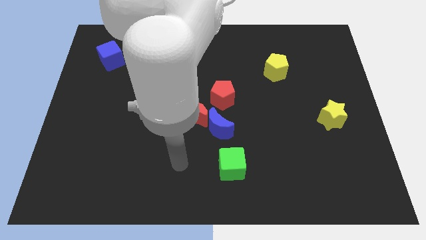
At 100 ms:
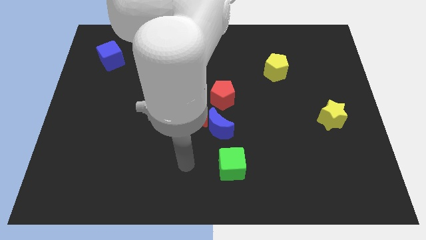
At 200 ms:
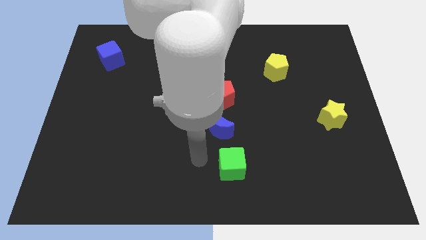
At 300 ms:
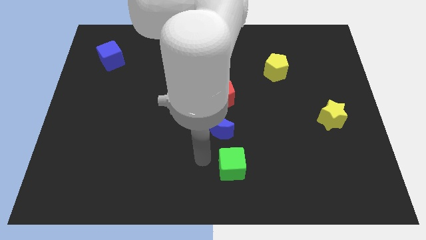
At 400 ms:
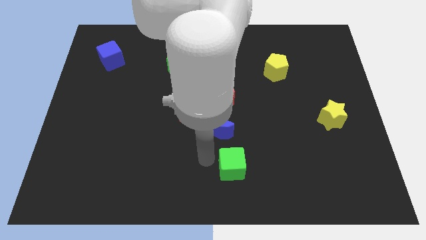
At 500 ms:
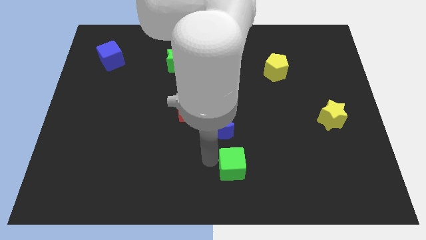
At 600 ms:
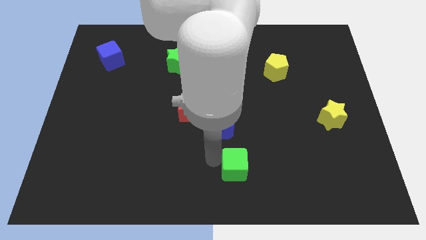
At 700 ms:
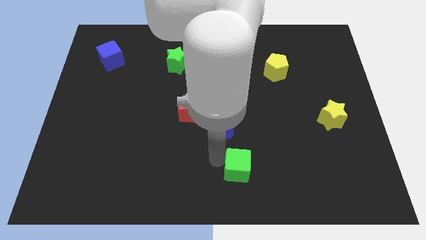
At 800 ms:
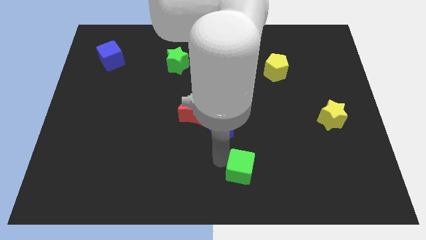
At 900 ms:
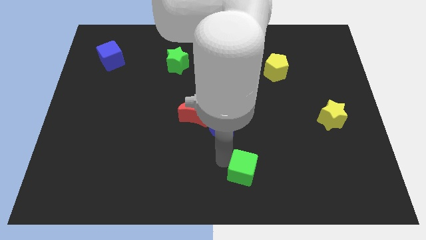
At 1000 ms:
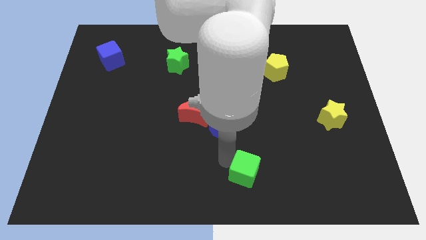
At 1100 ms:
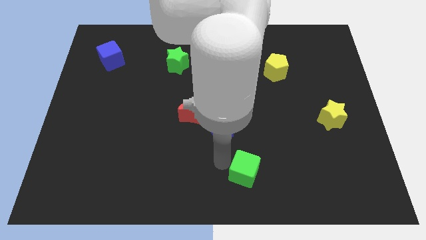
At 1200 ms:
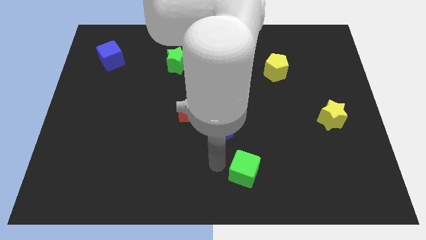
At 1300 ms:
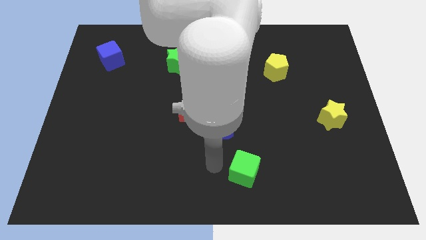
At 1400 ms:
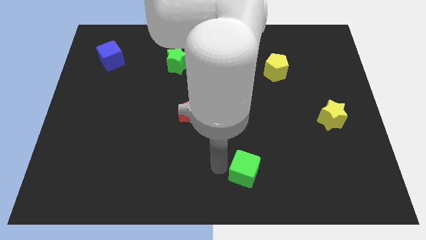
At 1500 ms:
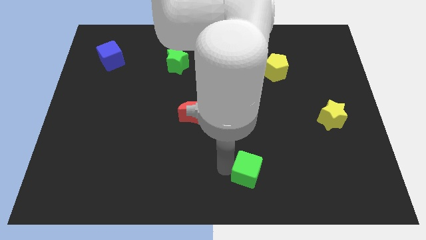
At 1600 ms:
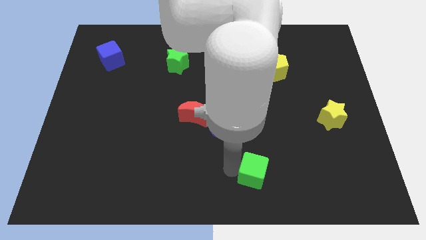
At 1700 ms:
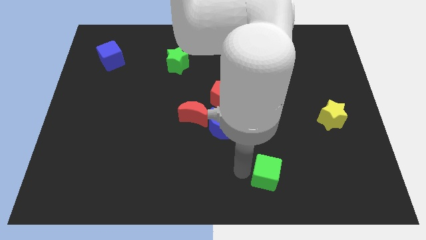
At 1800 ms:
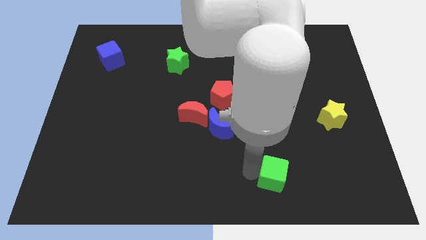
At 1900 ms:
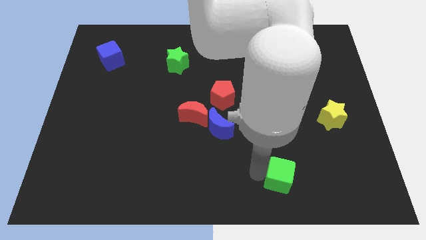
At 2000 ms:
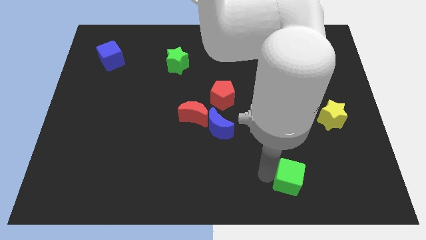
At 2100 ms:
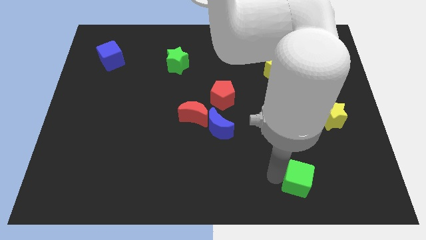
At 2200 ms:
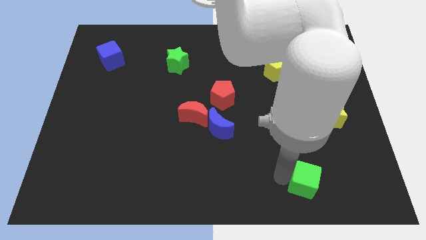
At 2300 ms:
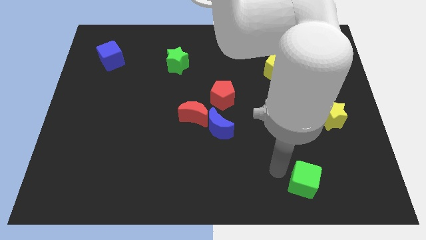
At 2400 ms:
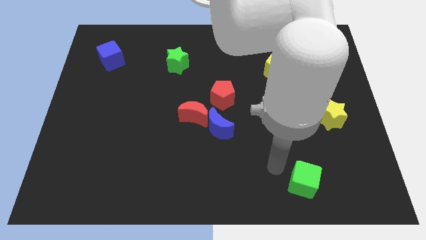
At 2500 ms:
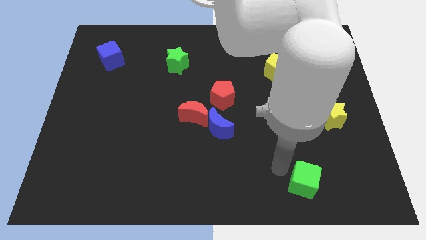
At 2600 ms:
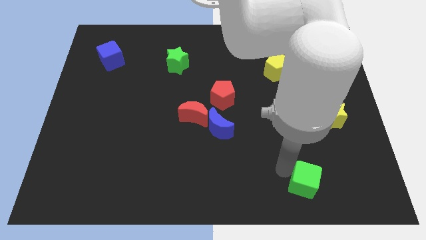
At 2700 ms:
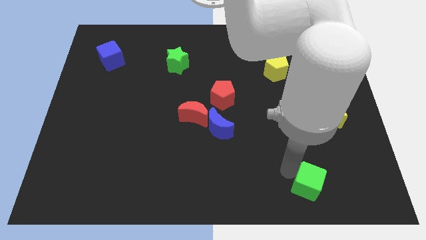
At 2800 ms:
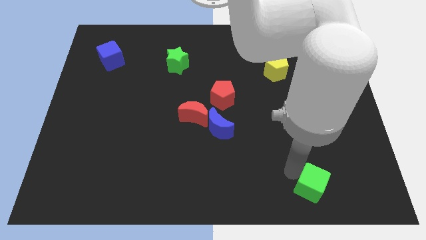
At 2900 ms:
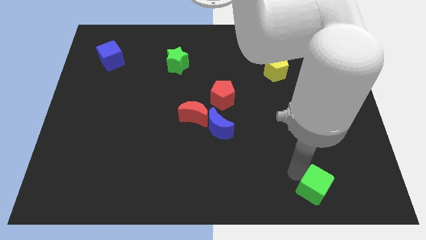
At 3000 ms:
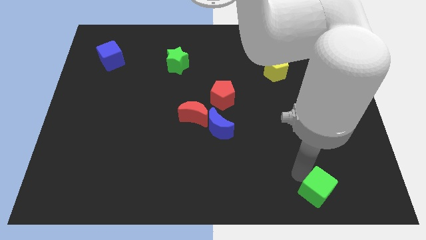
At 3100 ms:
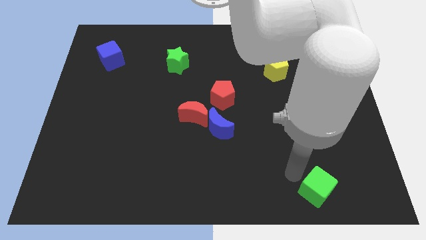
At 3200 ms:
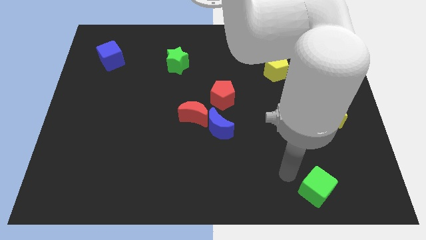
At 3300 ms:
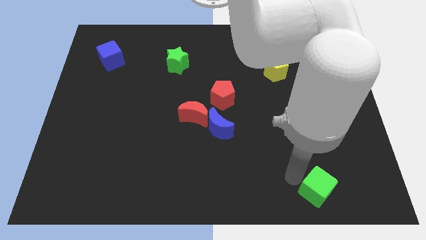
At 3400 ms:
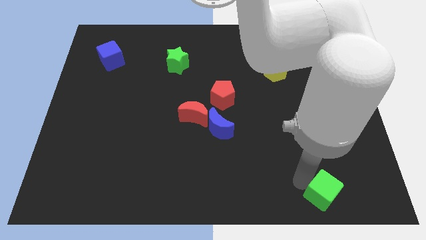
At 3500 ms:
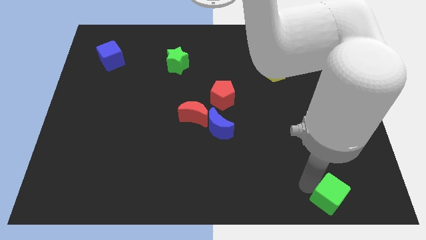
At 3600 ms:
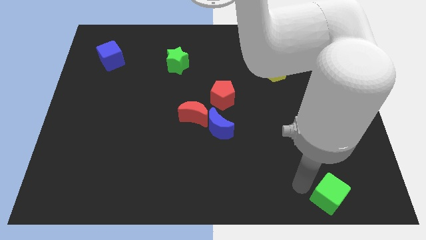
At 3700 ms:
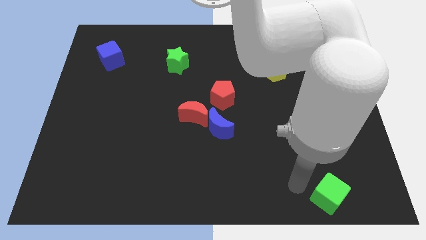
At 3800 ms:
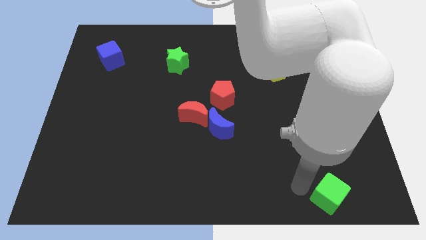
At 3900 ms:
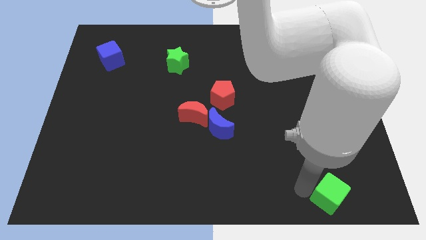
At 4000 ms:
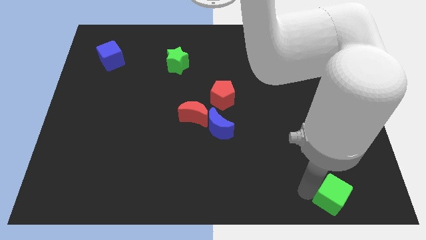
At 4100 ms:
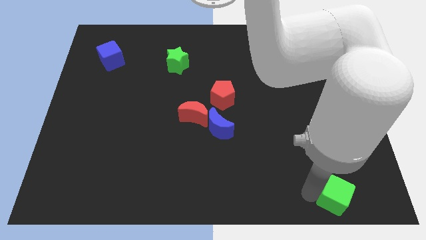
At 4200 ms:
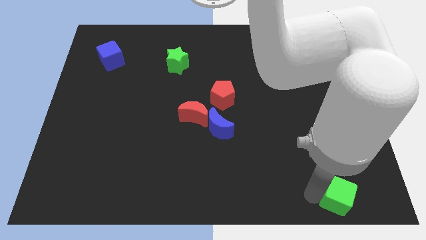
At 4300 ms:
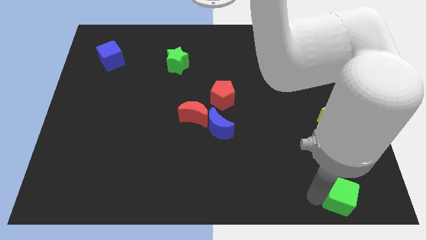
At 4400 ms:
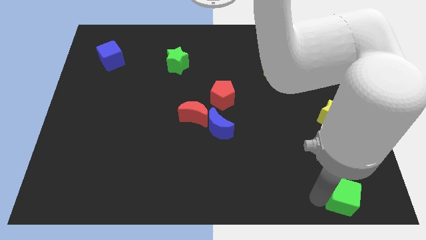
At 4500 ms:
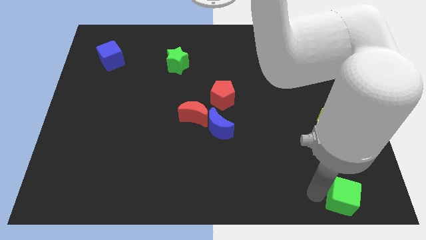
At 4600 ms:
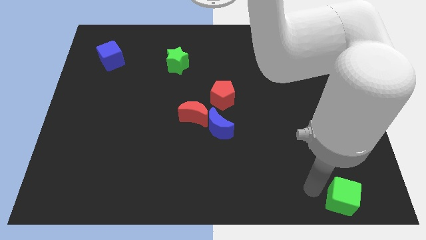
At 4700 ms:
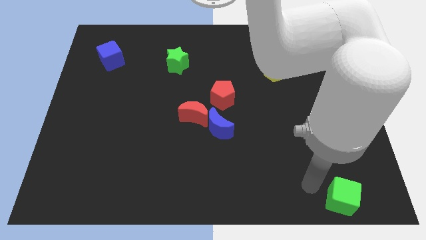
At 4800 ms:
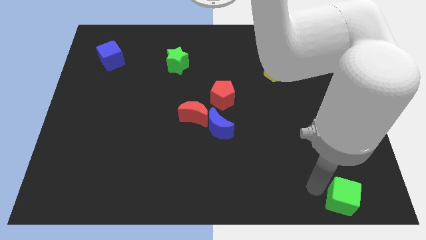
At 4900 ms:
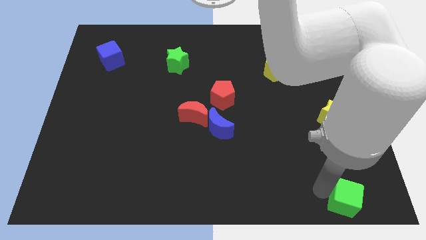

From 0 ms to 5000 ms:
push the green cube to the bottom right corner

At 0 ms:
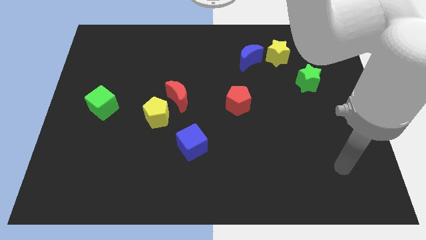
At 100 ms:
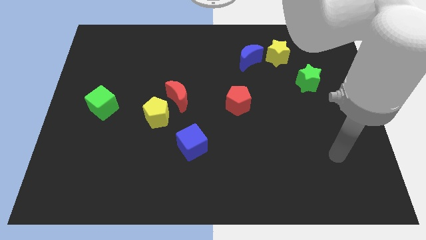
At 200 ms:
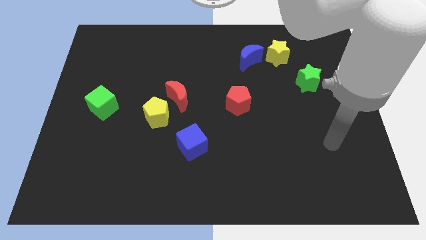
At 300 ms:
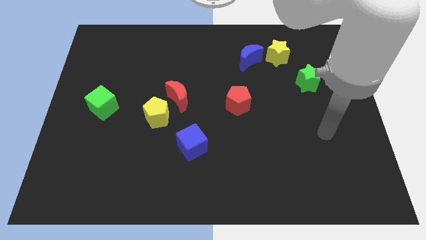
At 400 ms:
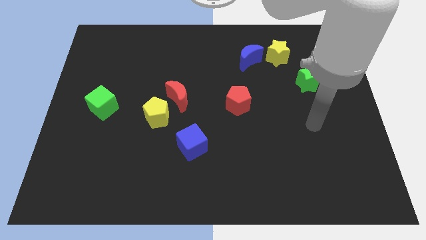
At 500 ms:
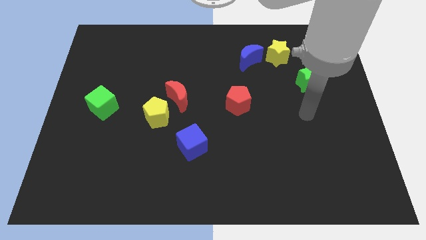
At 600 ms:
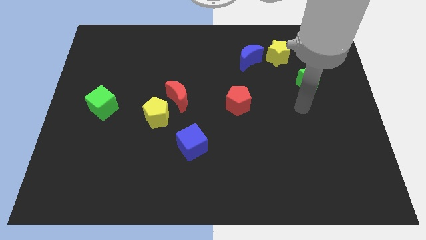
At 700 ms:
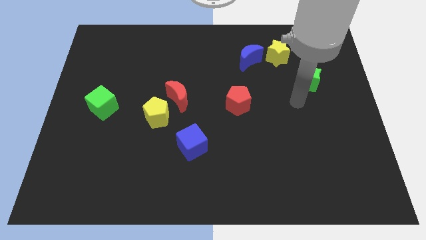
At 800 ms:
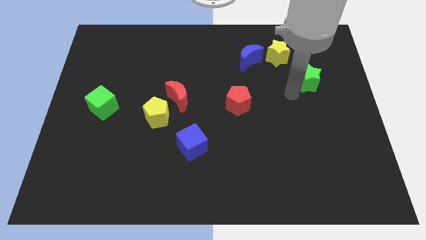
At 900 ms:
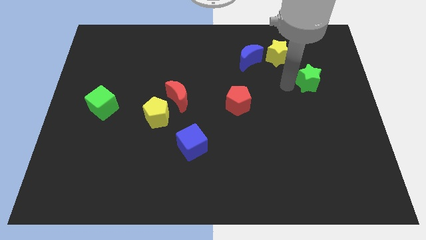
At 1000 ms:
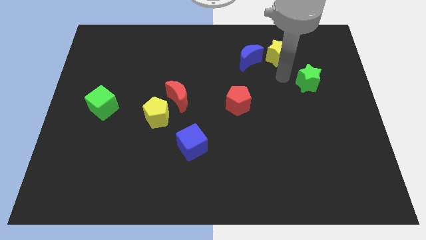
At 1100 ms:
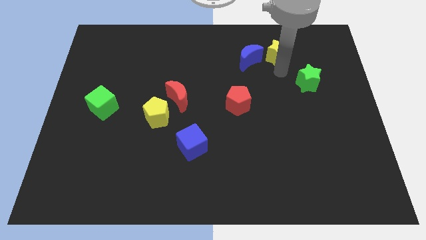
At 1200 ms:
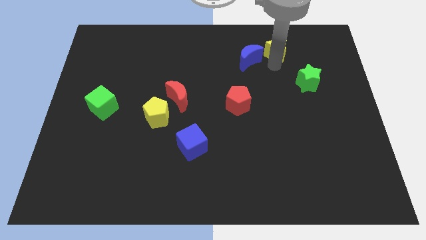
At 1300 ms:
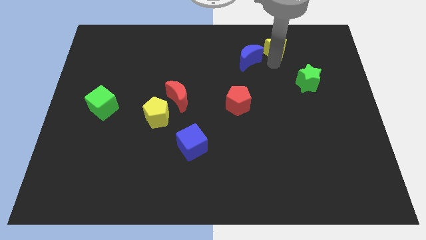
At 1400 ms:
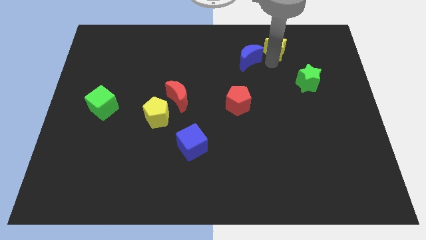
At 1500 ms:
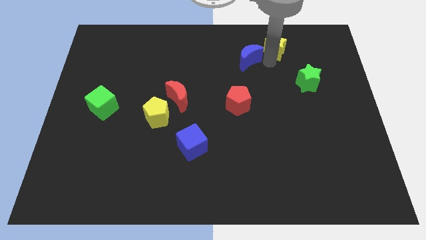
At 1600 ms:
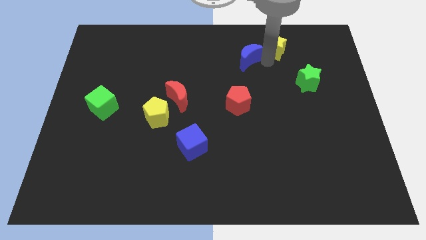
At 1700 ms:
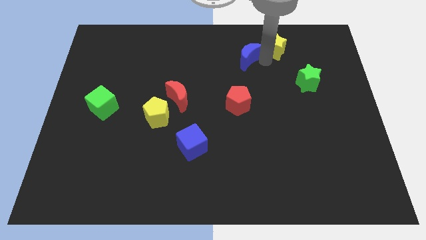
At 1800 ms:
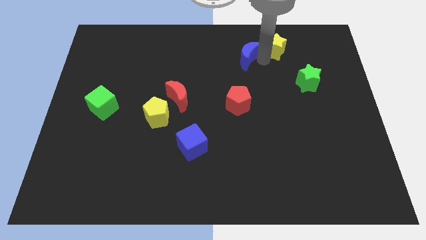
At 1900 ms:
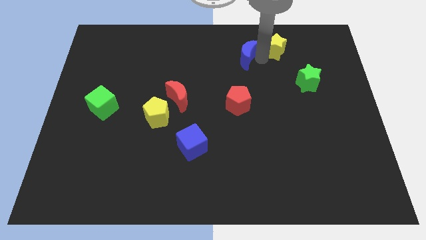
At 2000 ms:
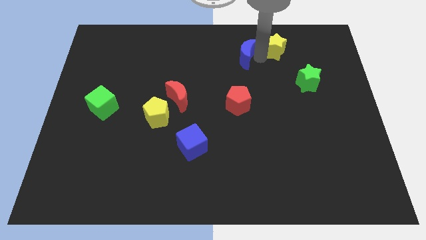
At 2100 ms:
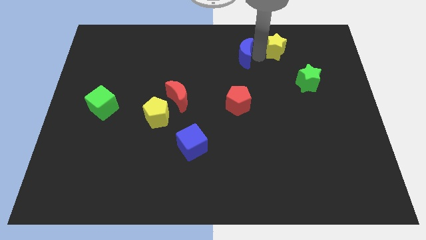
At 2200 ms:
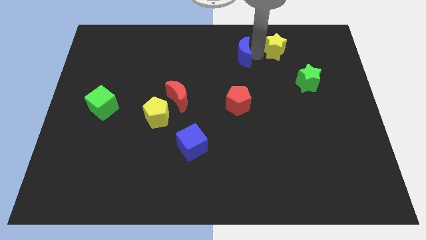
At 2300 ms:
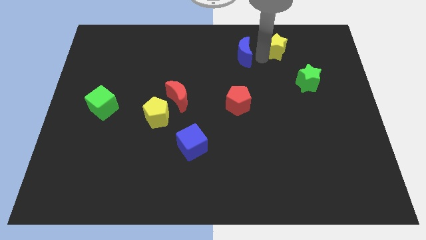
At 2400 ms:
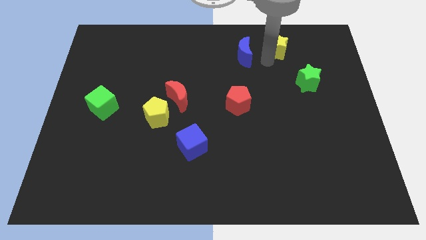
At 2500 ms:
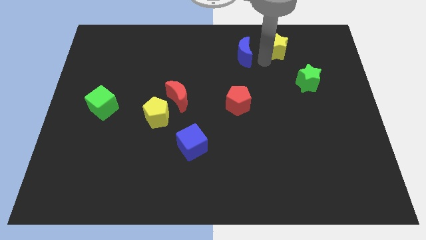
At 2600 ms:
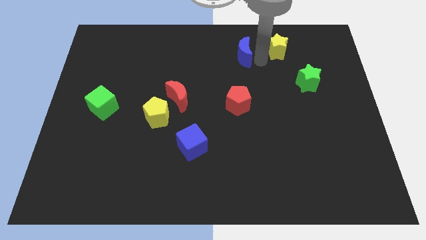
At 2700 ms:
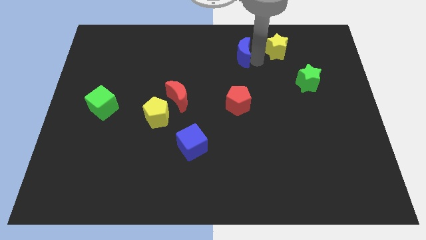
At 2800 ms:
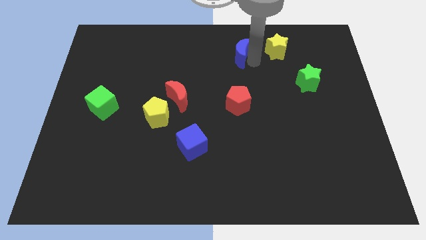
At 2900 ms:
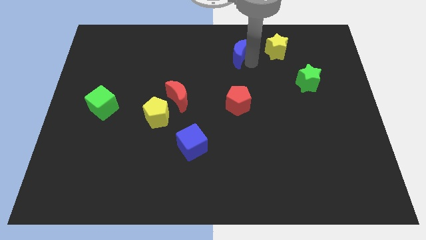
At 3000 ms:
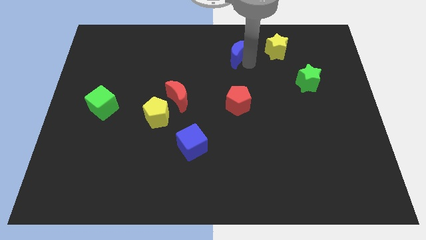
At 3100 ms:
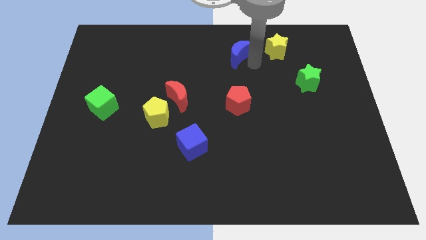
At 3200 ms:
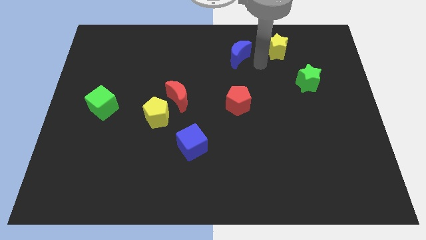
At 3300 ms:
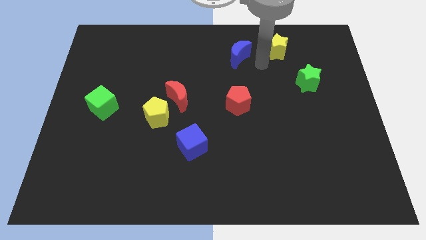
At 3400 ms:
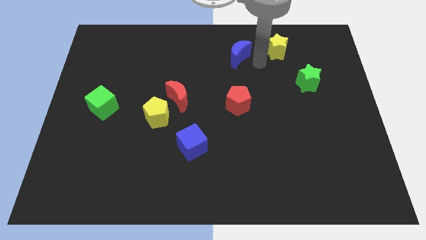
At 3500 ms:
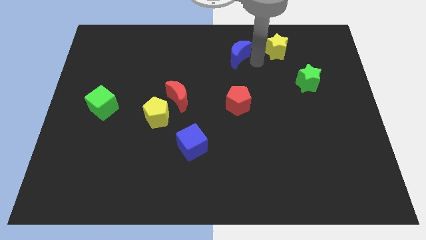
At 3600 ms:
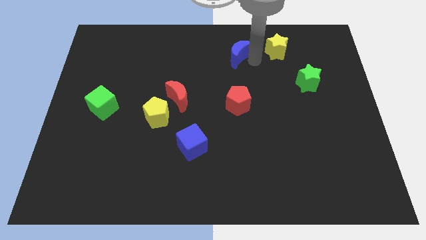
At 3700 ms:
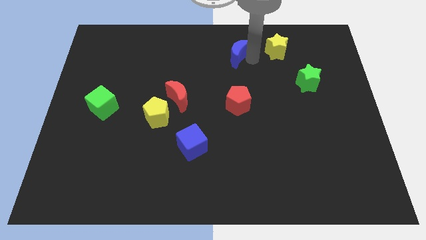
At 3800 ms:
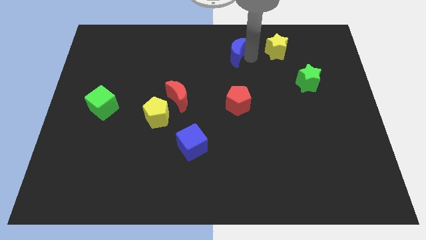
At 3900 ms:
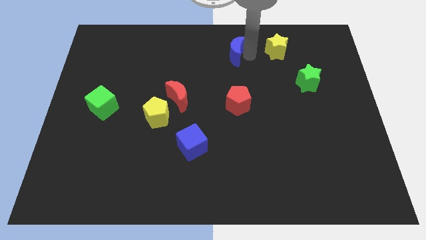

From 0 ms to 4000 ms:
move the blue moon to the top side
